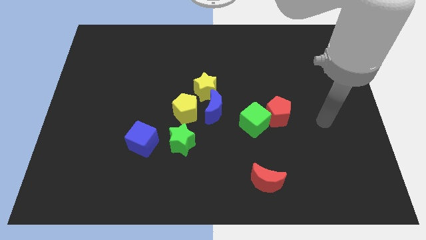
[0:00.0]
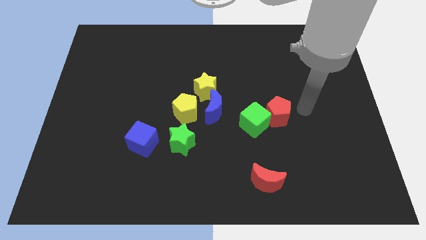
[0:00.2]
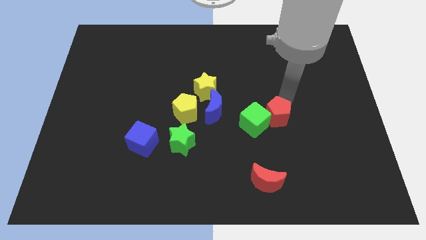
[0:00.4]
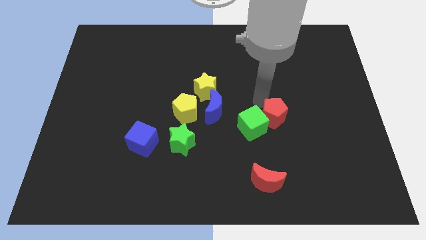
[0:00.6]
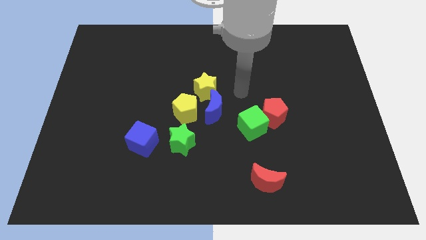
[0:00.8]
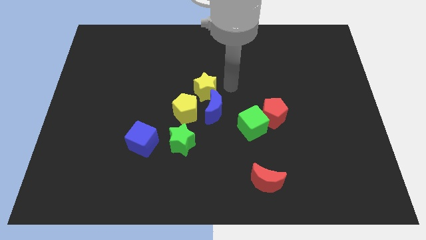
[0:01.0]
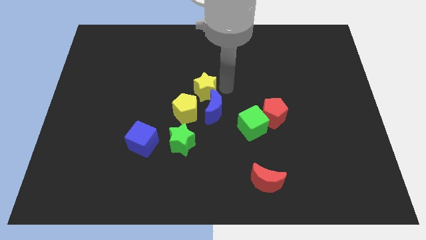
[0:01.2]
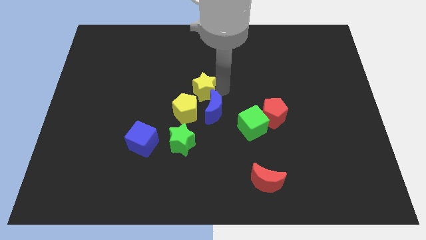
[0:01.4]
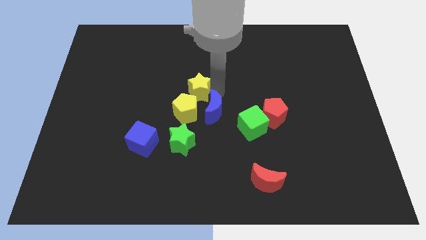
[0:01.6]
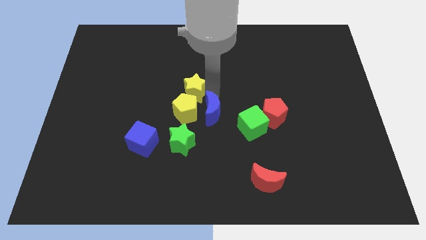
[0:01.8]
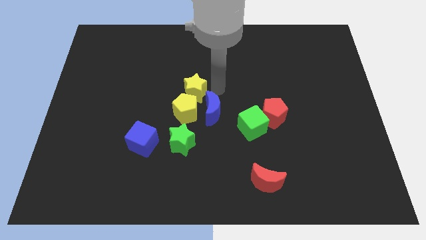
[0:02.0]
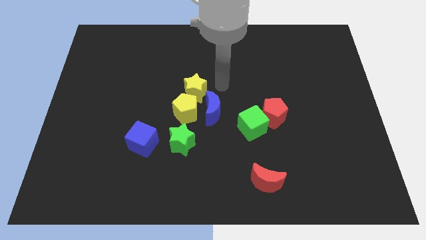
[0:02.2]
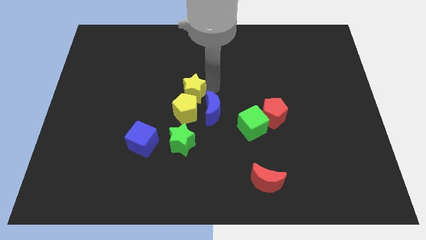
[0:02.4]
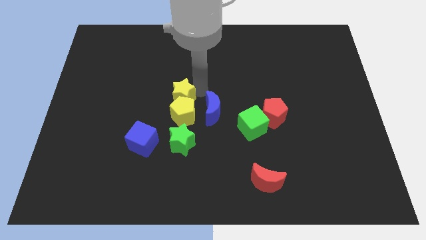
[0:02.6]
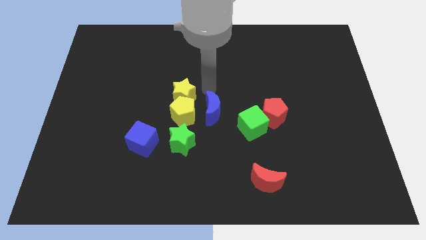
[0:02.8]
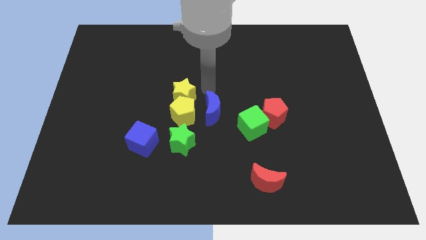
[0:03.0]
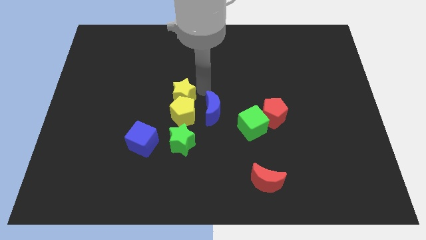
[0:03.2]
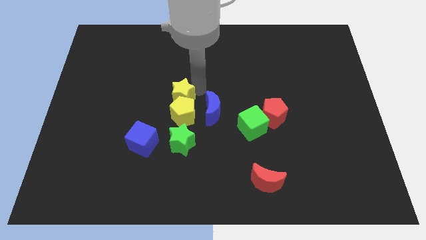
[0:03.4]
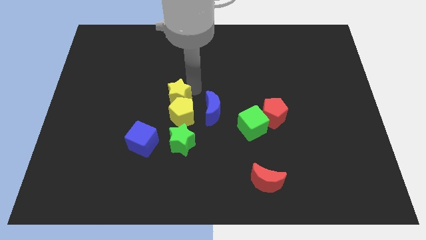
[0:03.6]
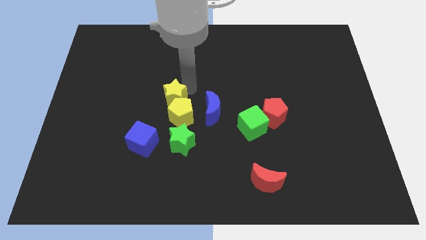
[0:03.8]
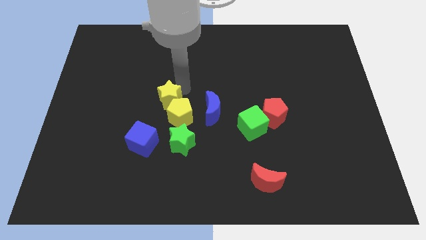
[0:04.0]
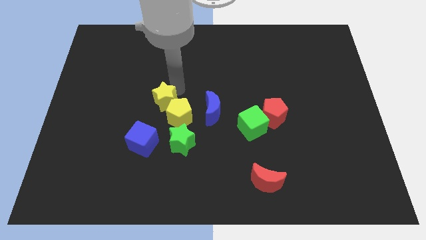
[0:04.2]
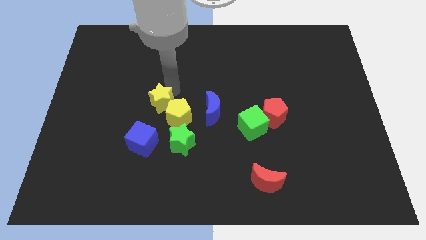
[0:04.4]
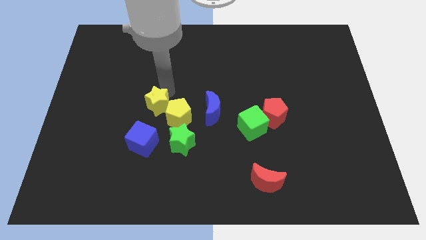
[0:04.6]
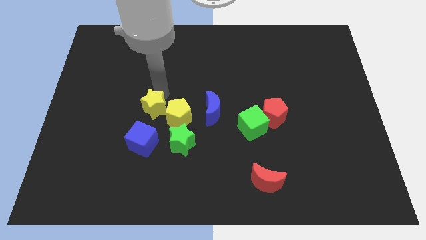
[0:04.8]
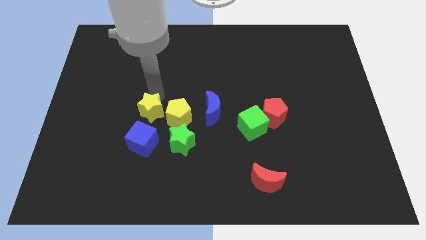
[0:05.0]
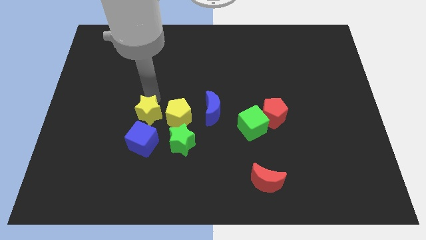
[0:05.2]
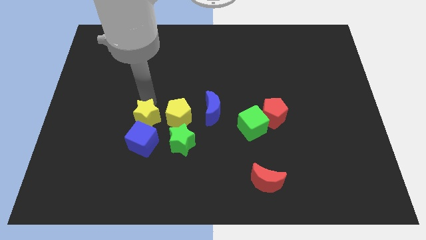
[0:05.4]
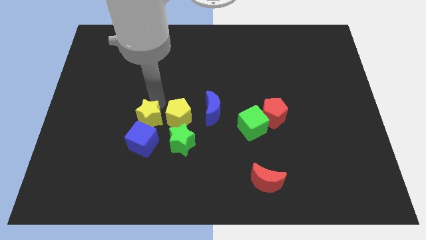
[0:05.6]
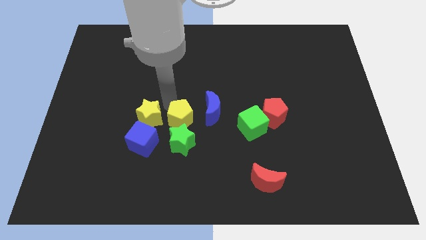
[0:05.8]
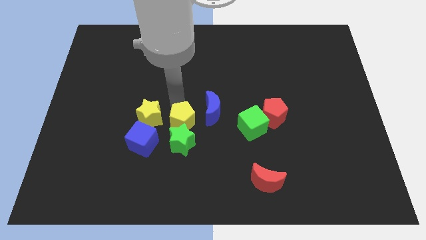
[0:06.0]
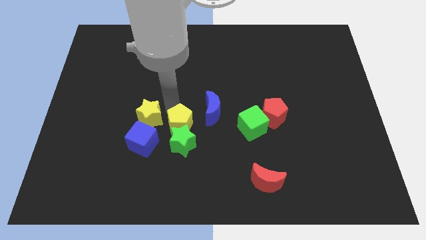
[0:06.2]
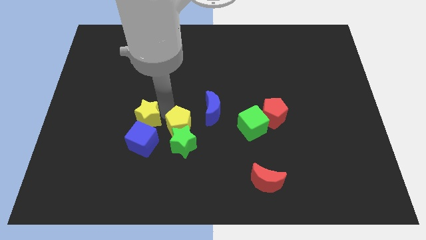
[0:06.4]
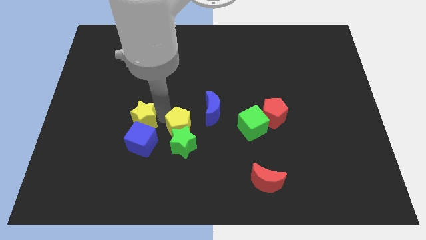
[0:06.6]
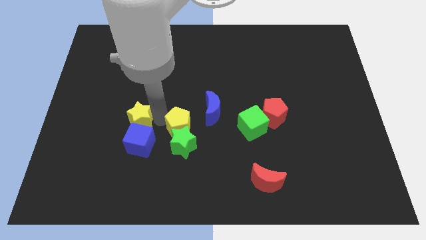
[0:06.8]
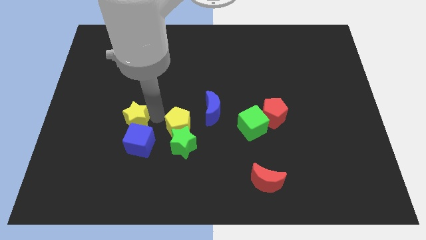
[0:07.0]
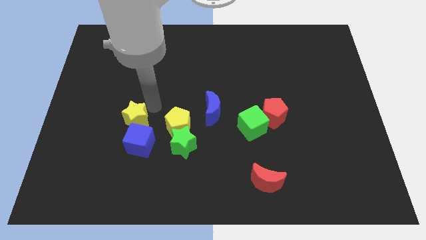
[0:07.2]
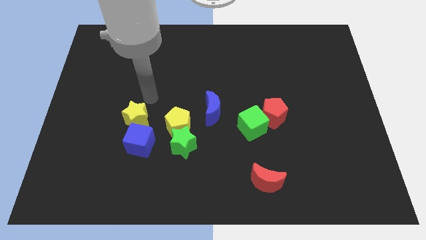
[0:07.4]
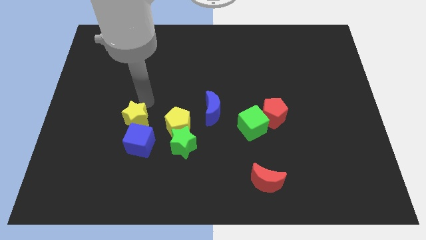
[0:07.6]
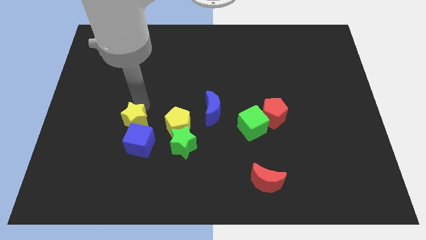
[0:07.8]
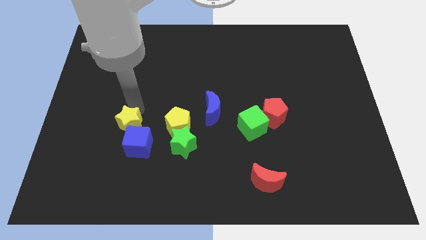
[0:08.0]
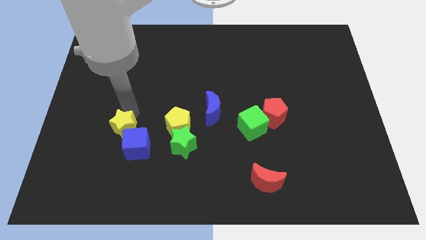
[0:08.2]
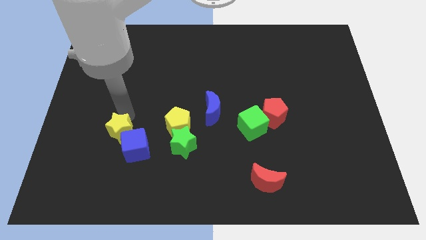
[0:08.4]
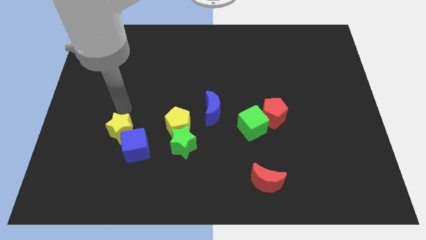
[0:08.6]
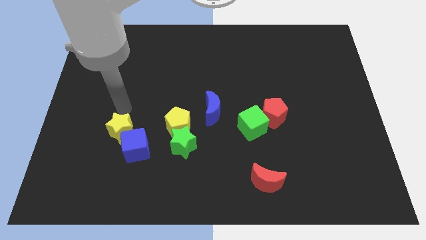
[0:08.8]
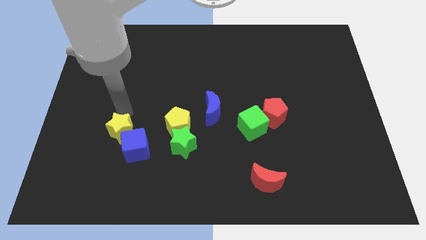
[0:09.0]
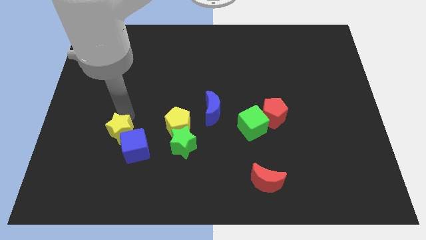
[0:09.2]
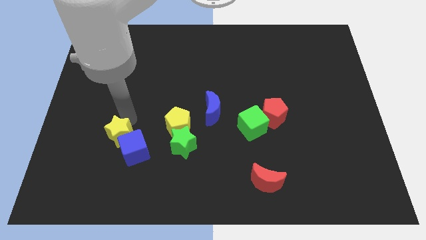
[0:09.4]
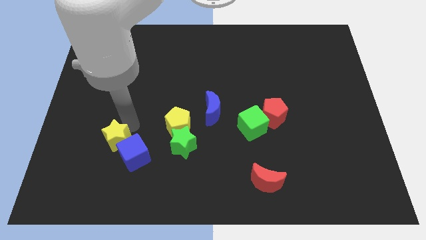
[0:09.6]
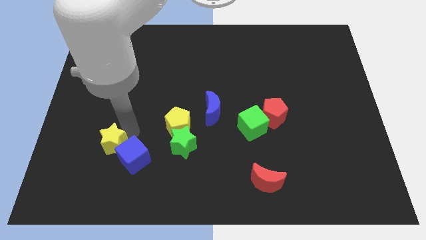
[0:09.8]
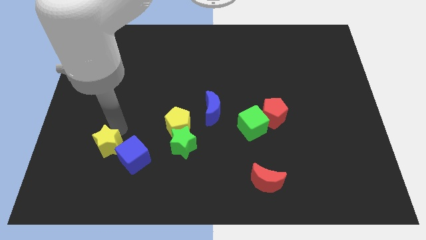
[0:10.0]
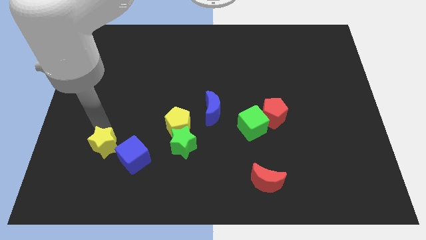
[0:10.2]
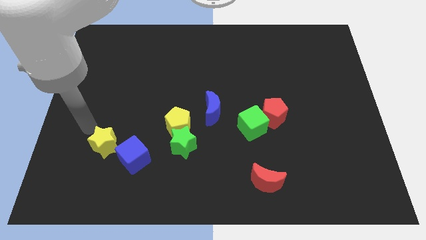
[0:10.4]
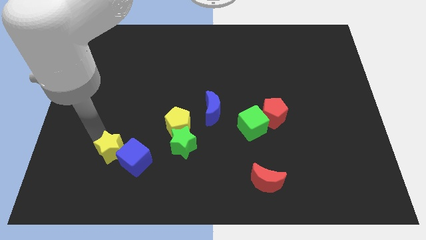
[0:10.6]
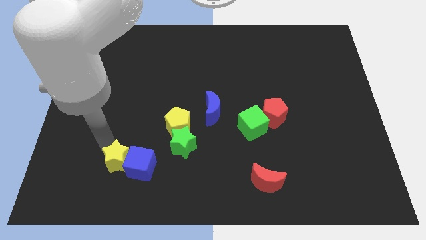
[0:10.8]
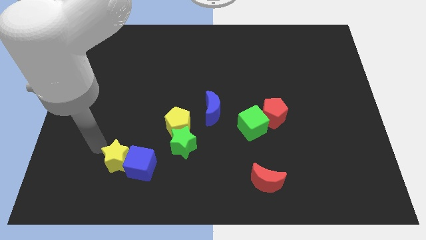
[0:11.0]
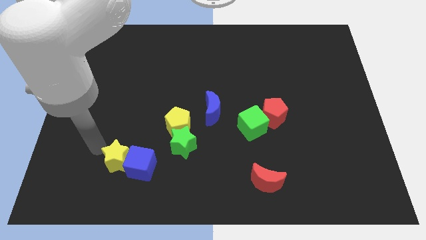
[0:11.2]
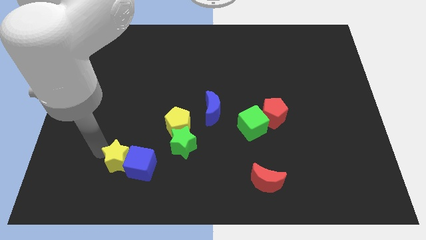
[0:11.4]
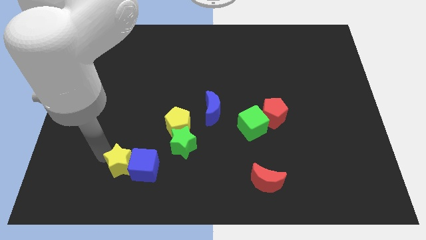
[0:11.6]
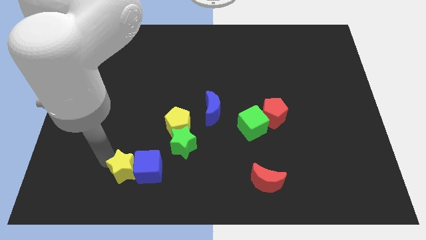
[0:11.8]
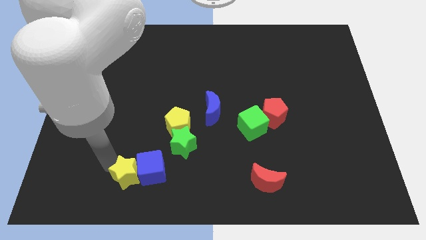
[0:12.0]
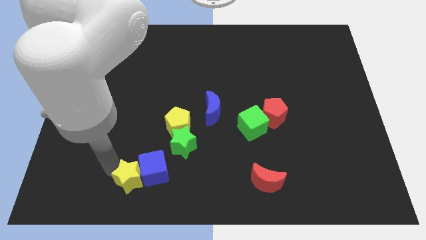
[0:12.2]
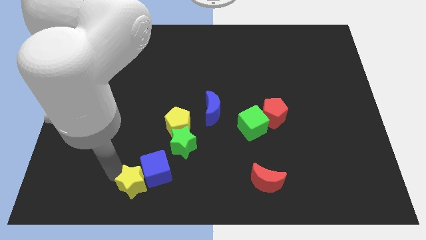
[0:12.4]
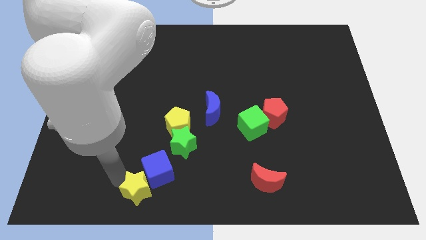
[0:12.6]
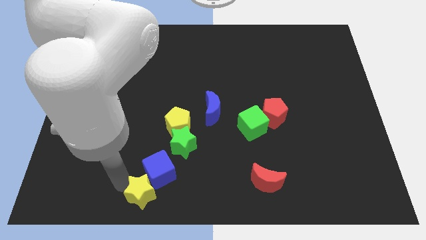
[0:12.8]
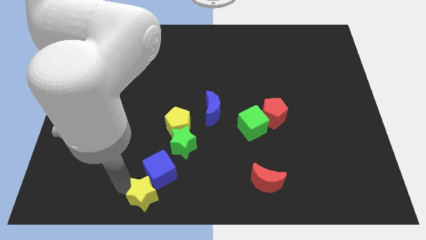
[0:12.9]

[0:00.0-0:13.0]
move the yellow star to the bottom side
